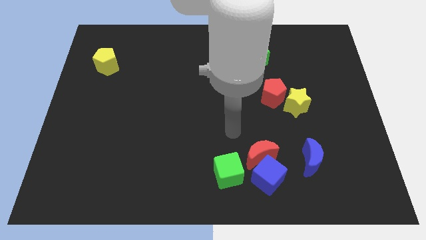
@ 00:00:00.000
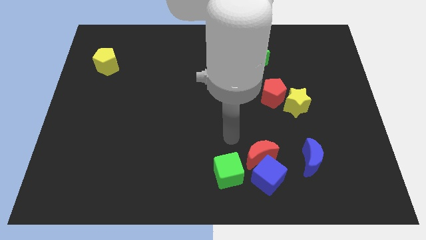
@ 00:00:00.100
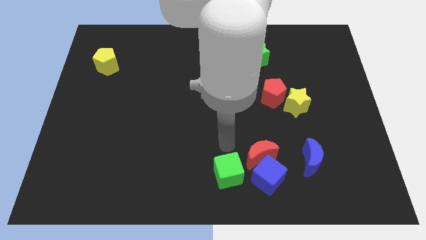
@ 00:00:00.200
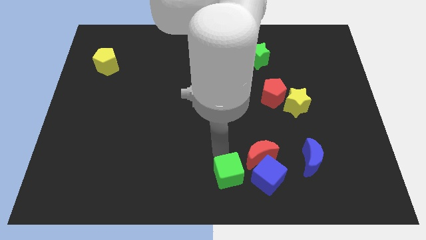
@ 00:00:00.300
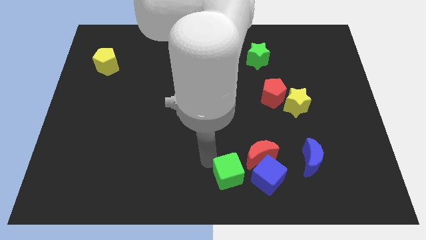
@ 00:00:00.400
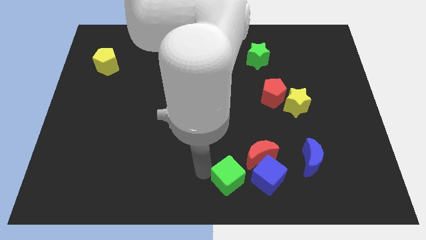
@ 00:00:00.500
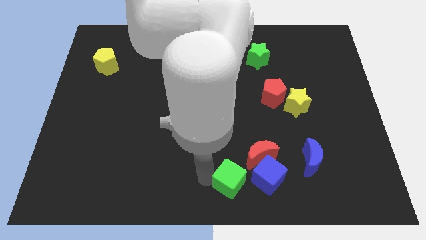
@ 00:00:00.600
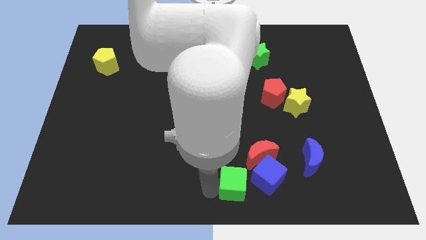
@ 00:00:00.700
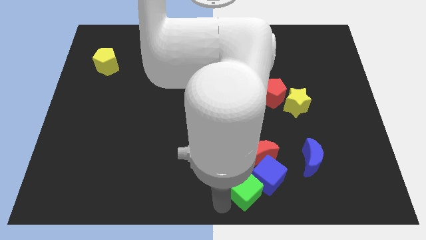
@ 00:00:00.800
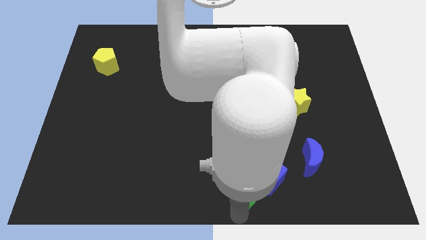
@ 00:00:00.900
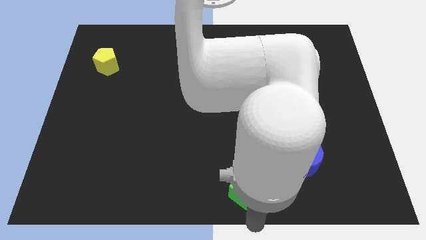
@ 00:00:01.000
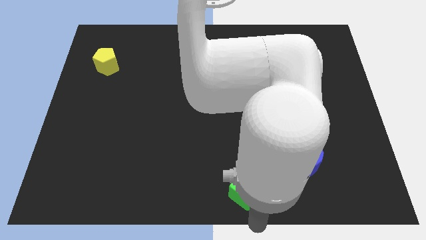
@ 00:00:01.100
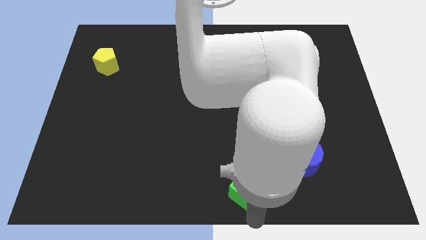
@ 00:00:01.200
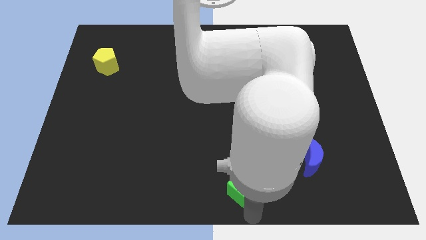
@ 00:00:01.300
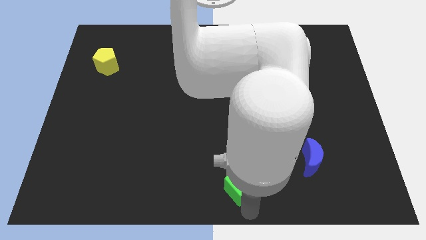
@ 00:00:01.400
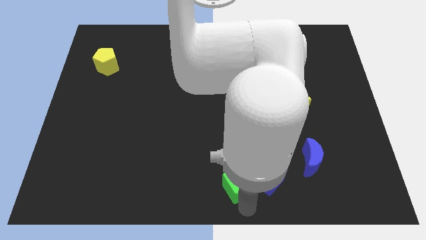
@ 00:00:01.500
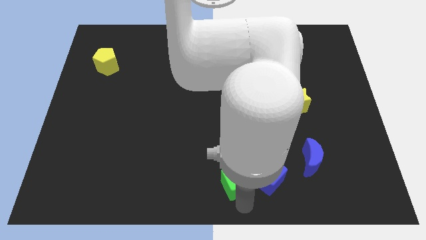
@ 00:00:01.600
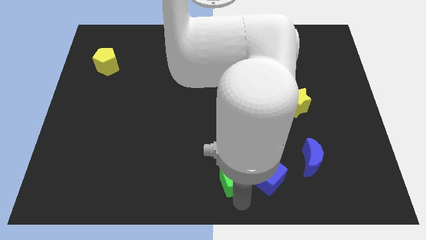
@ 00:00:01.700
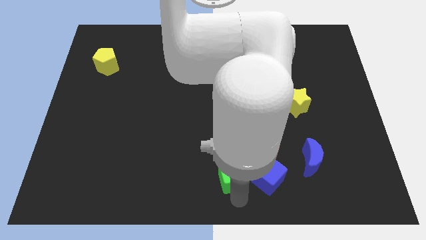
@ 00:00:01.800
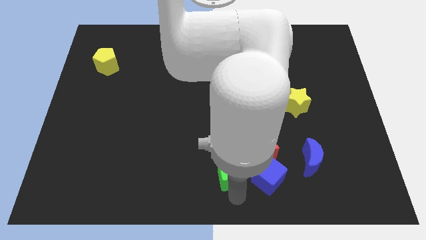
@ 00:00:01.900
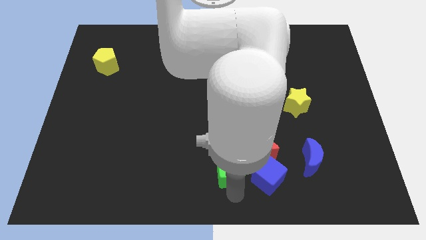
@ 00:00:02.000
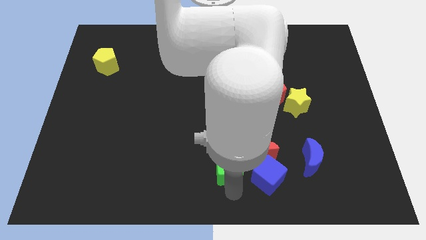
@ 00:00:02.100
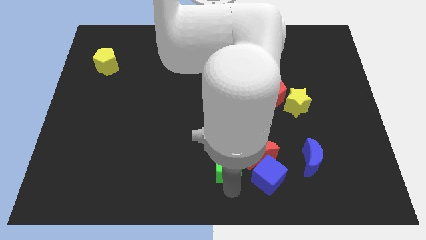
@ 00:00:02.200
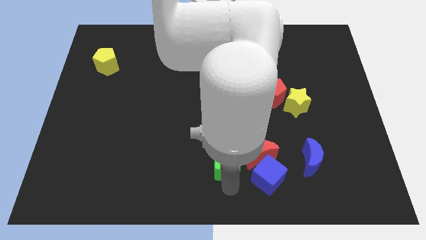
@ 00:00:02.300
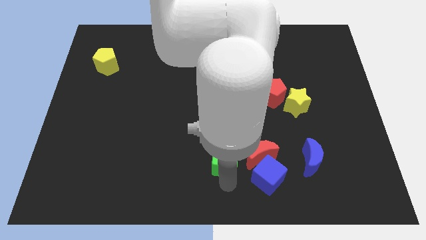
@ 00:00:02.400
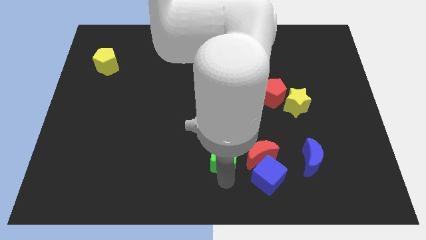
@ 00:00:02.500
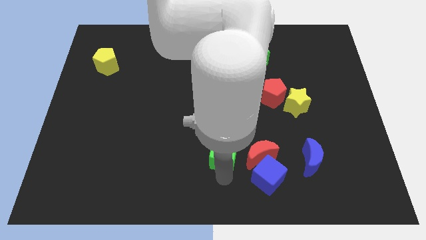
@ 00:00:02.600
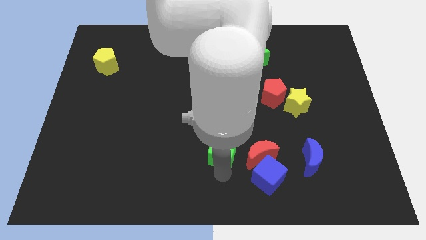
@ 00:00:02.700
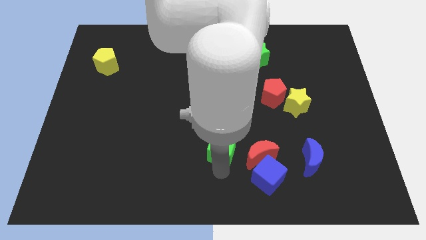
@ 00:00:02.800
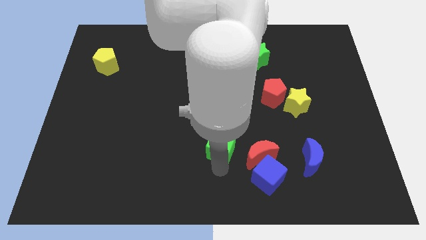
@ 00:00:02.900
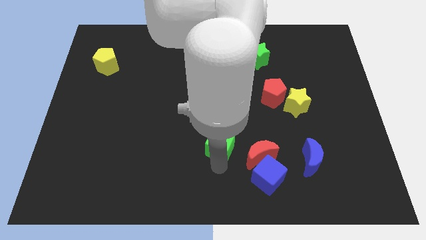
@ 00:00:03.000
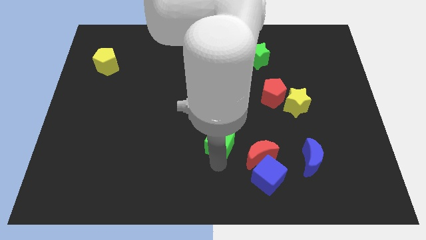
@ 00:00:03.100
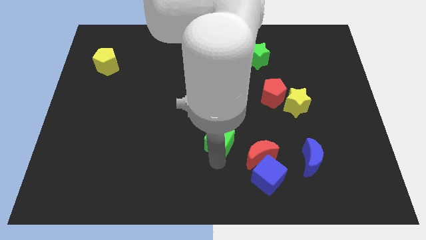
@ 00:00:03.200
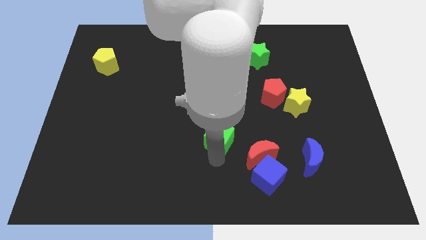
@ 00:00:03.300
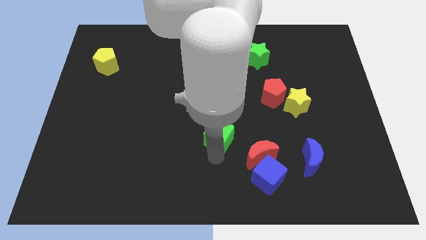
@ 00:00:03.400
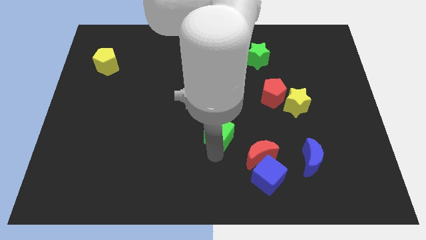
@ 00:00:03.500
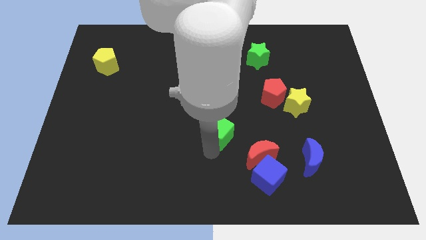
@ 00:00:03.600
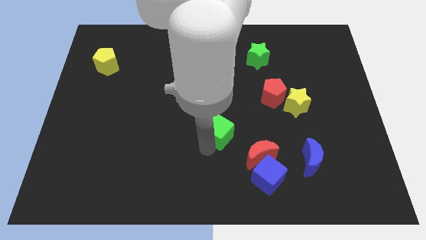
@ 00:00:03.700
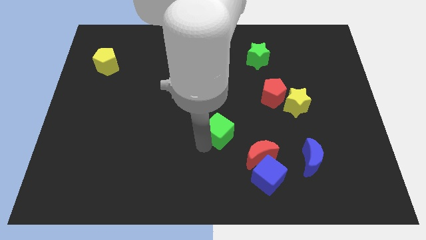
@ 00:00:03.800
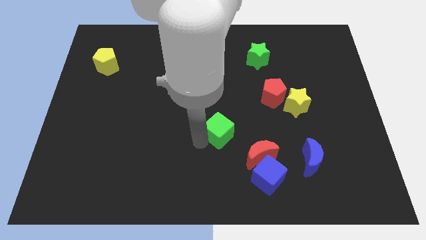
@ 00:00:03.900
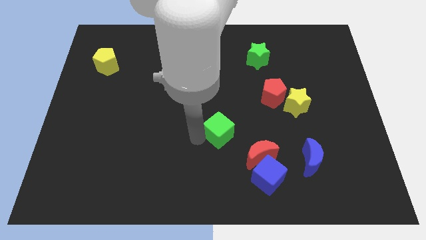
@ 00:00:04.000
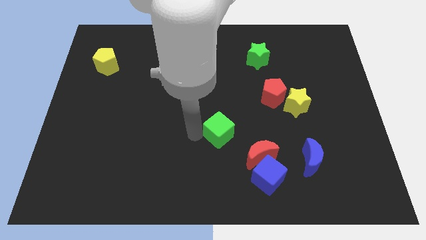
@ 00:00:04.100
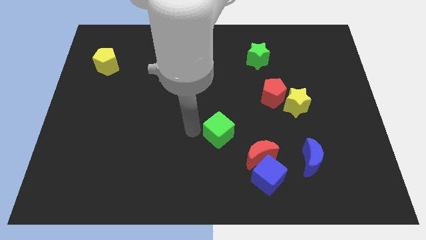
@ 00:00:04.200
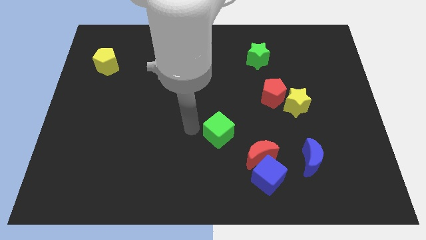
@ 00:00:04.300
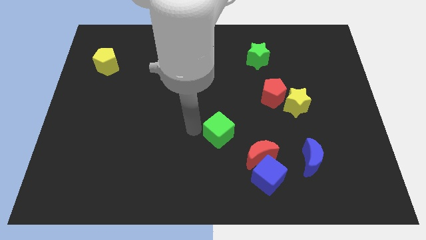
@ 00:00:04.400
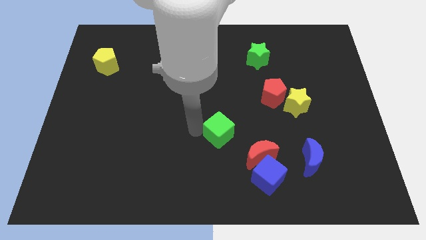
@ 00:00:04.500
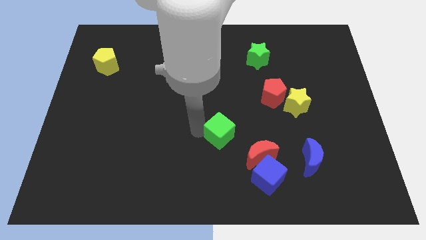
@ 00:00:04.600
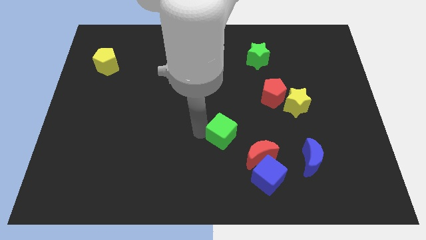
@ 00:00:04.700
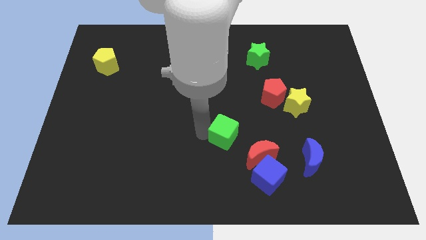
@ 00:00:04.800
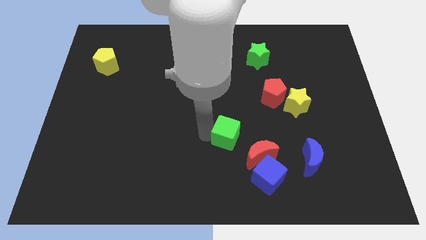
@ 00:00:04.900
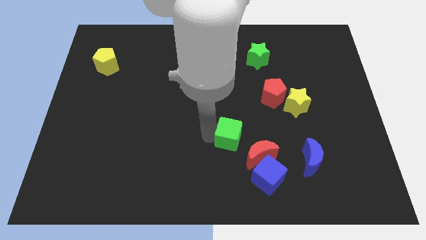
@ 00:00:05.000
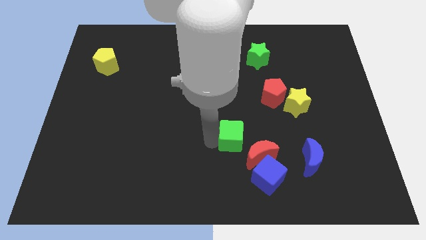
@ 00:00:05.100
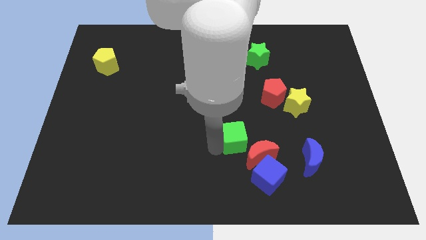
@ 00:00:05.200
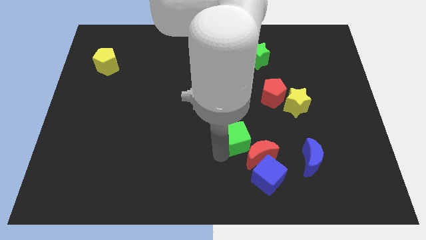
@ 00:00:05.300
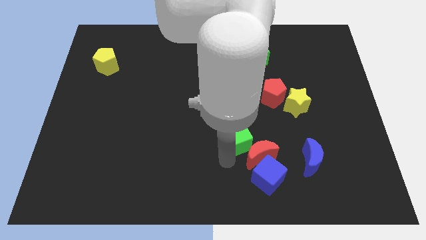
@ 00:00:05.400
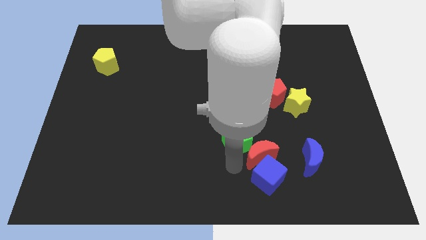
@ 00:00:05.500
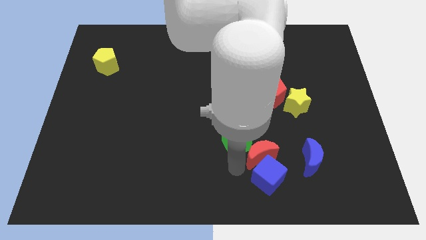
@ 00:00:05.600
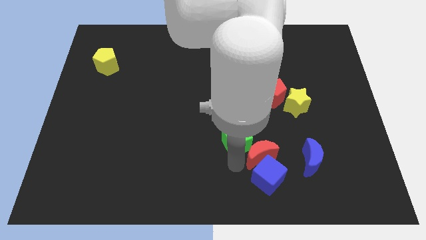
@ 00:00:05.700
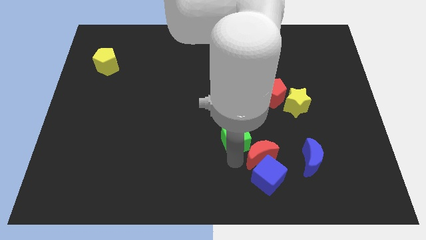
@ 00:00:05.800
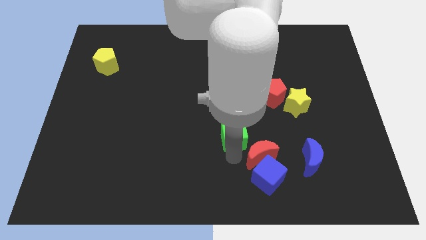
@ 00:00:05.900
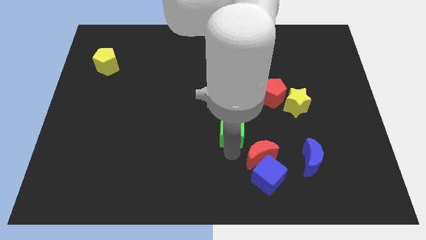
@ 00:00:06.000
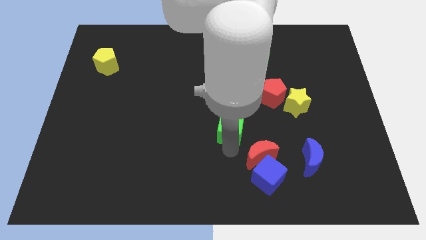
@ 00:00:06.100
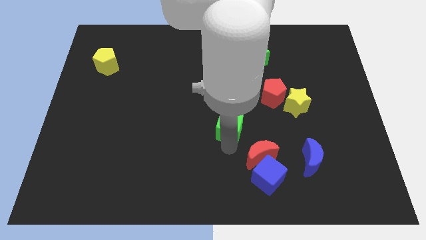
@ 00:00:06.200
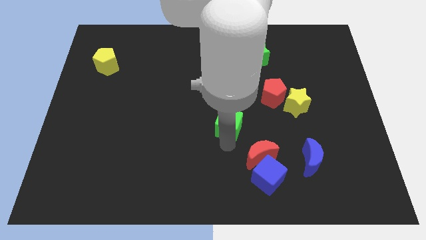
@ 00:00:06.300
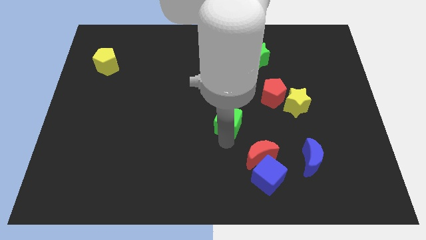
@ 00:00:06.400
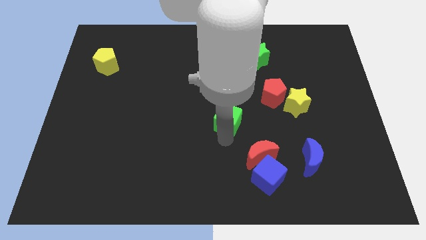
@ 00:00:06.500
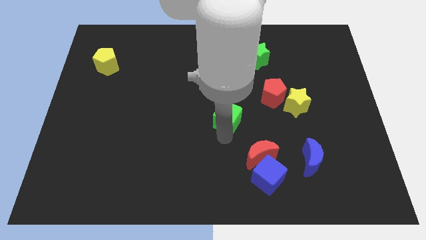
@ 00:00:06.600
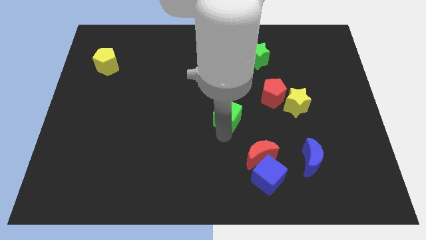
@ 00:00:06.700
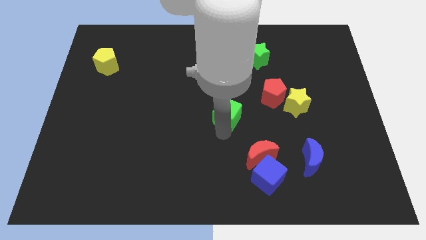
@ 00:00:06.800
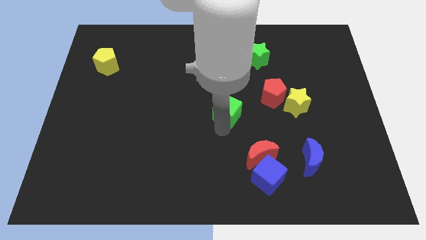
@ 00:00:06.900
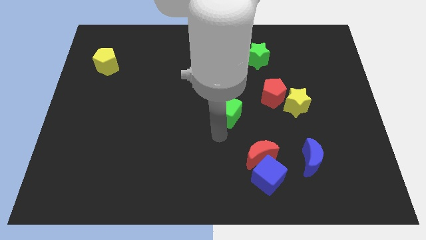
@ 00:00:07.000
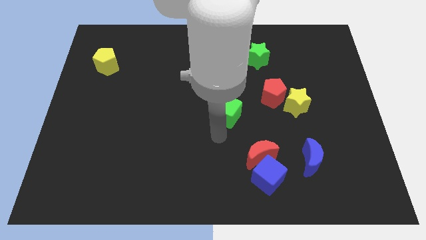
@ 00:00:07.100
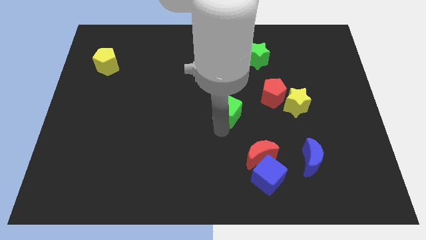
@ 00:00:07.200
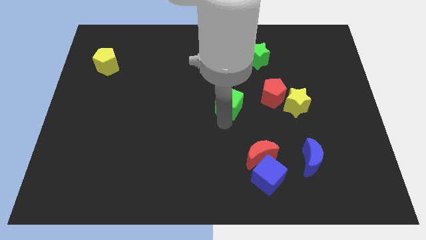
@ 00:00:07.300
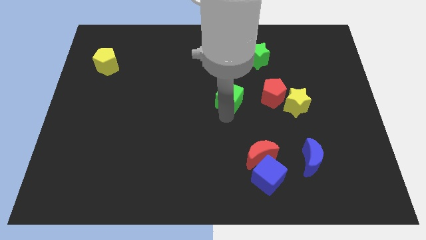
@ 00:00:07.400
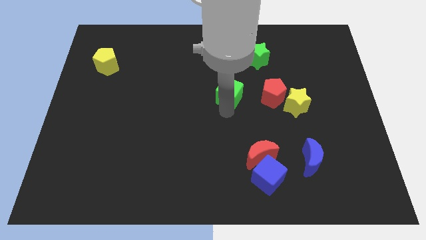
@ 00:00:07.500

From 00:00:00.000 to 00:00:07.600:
move the green cube upwards

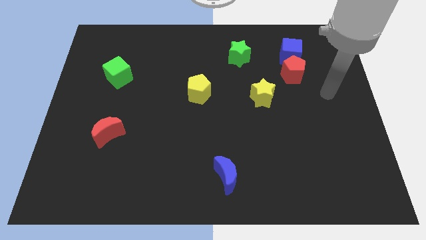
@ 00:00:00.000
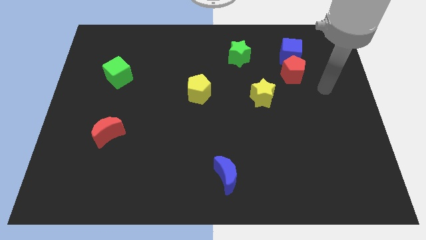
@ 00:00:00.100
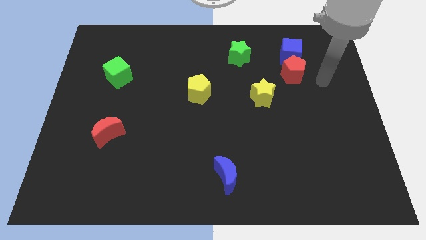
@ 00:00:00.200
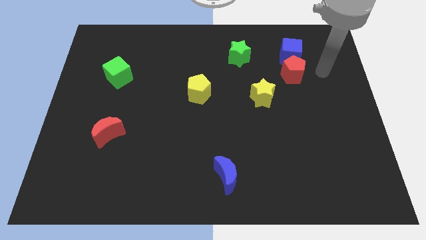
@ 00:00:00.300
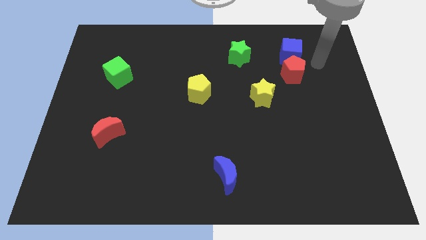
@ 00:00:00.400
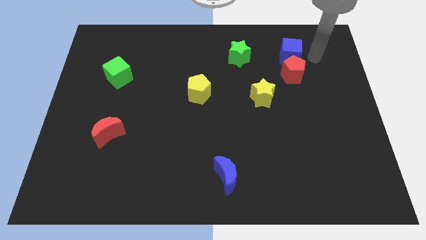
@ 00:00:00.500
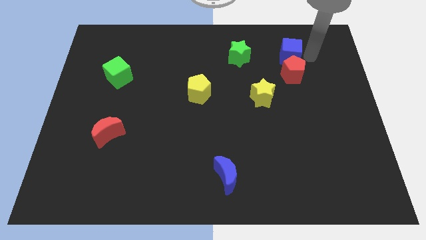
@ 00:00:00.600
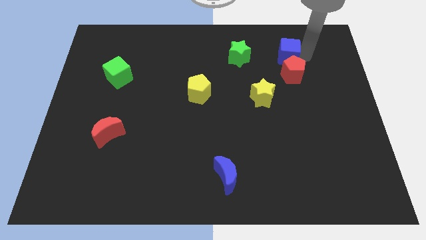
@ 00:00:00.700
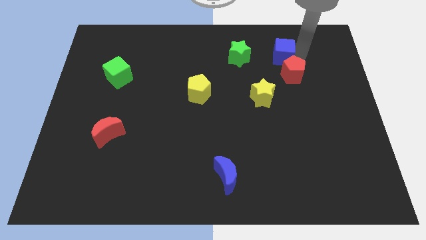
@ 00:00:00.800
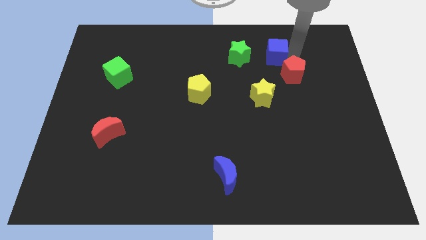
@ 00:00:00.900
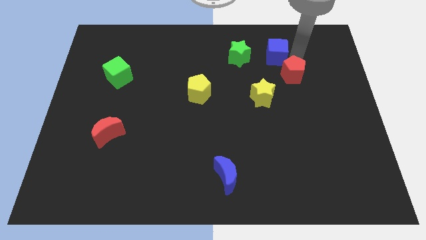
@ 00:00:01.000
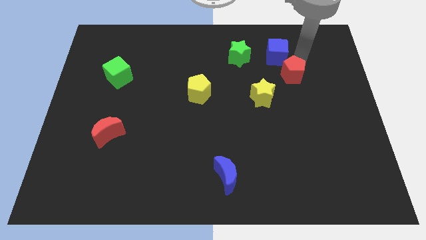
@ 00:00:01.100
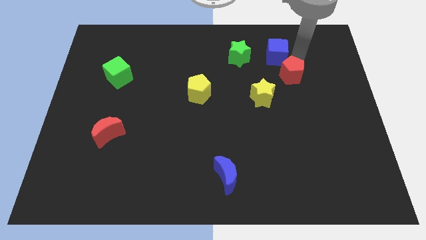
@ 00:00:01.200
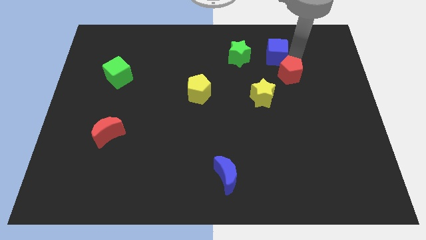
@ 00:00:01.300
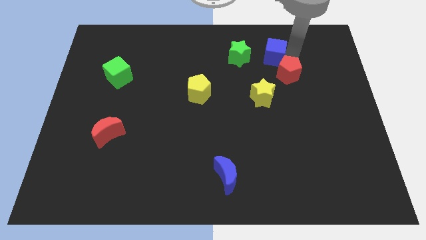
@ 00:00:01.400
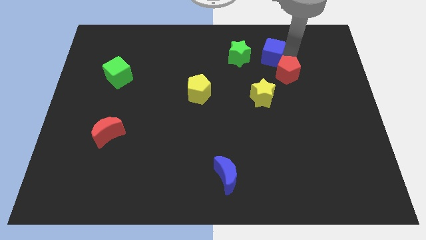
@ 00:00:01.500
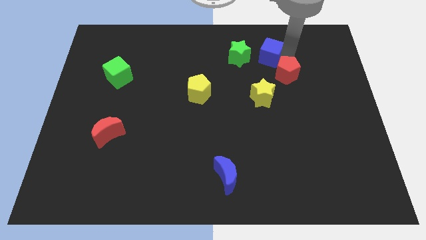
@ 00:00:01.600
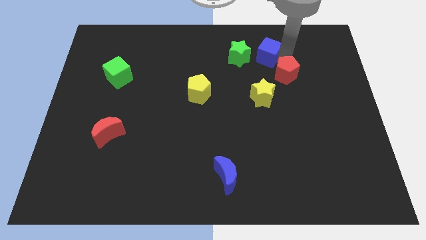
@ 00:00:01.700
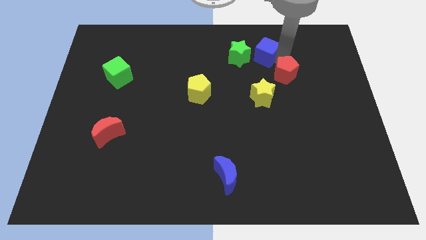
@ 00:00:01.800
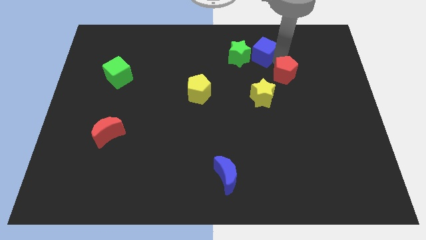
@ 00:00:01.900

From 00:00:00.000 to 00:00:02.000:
move the blue cube left slightly
